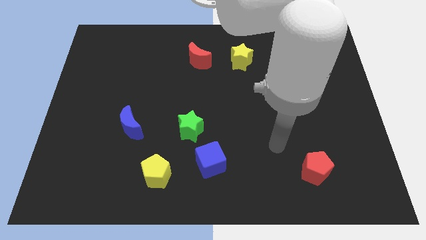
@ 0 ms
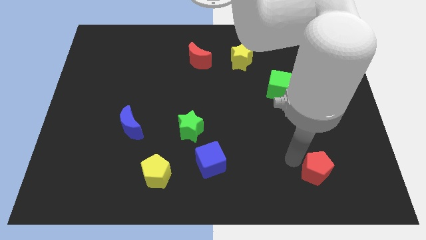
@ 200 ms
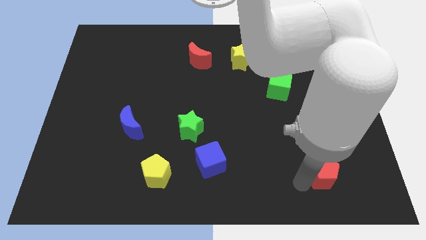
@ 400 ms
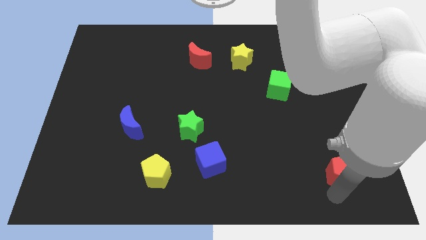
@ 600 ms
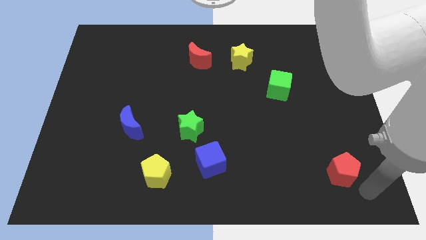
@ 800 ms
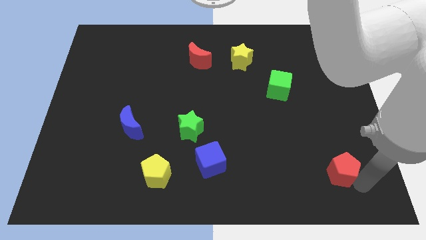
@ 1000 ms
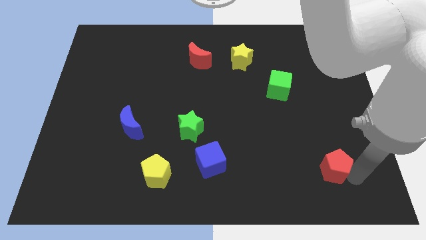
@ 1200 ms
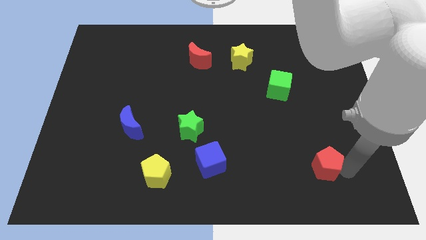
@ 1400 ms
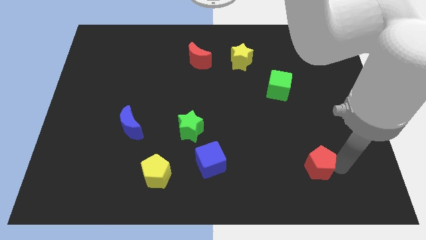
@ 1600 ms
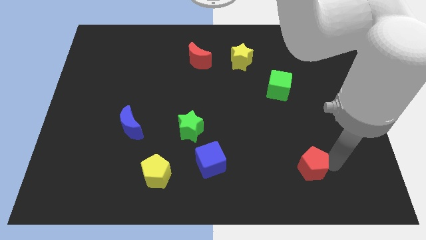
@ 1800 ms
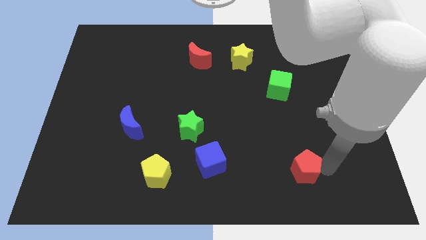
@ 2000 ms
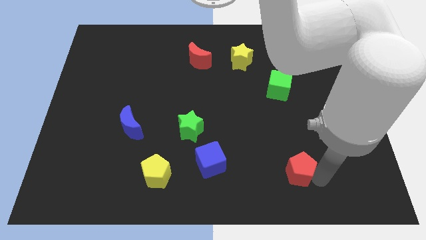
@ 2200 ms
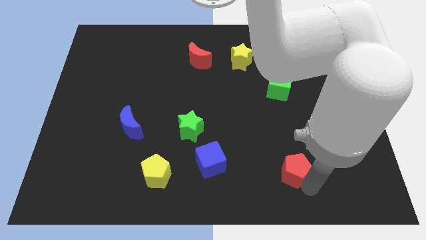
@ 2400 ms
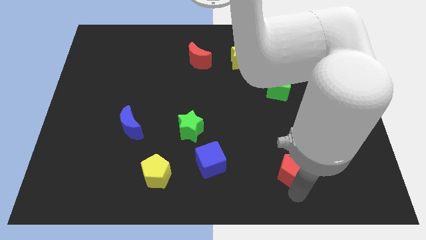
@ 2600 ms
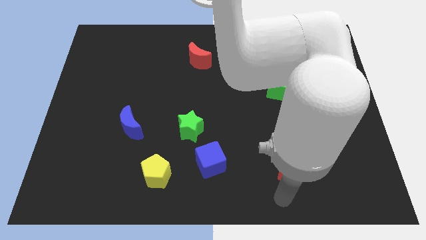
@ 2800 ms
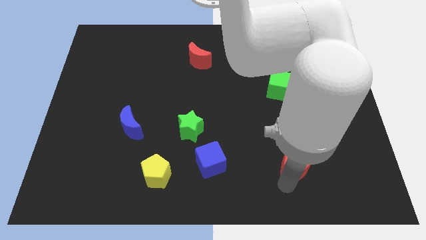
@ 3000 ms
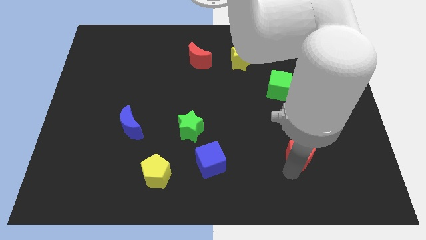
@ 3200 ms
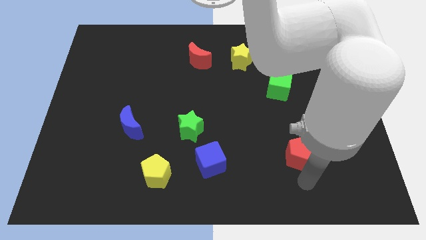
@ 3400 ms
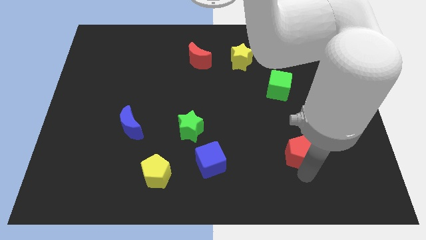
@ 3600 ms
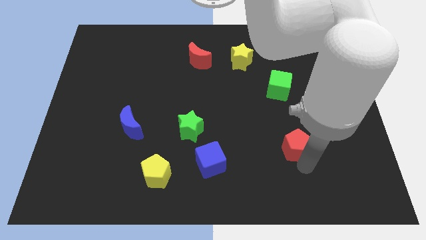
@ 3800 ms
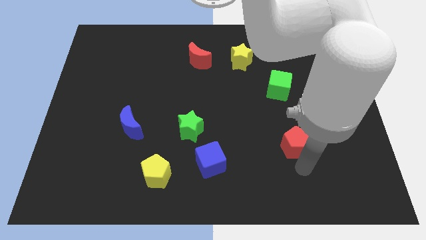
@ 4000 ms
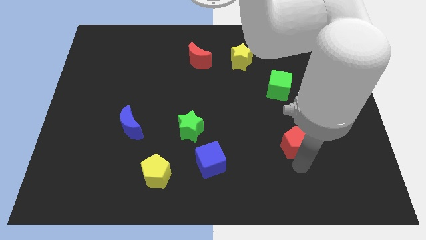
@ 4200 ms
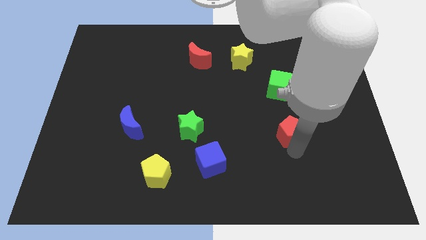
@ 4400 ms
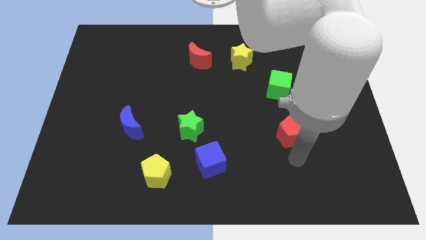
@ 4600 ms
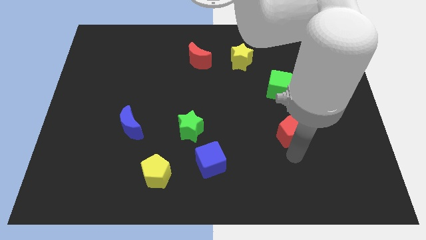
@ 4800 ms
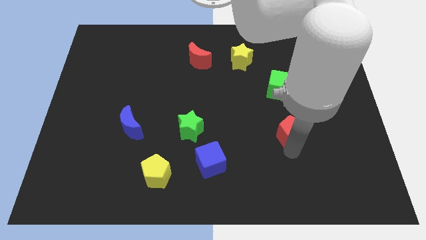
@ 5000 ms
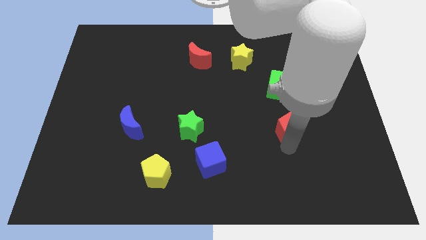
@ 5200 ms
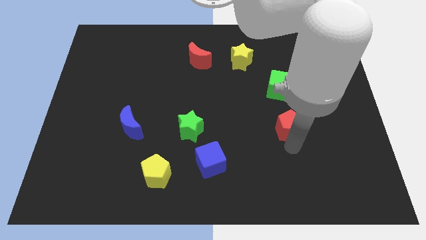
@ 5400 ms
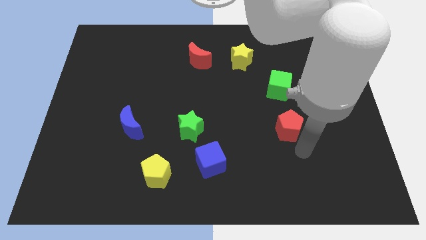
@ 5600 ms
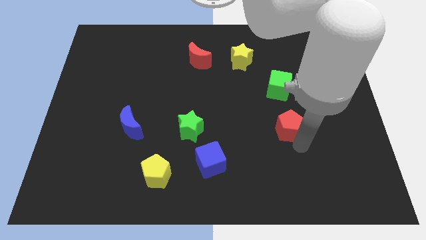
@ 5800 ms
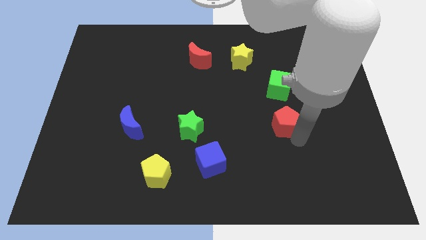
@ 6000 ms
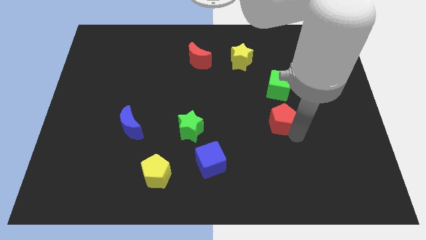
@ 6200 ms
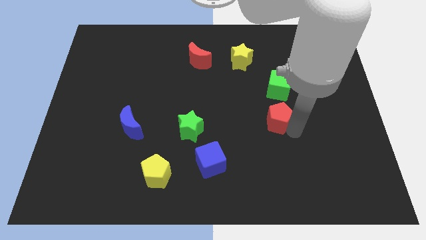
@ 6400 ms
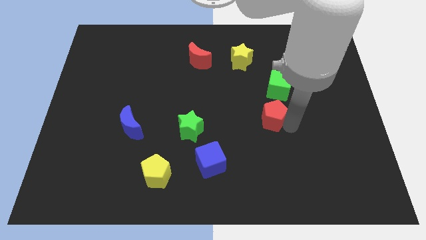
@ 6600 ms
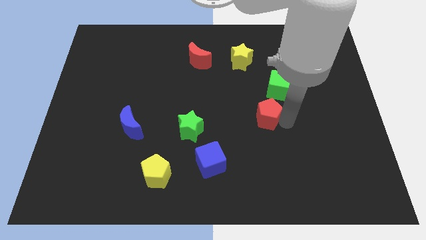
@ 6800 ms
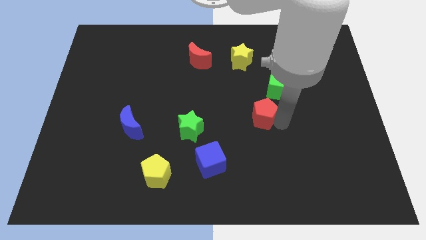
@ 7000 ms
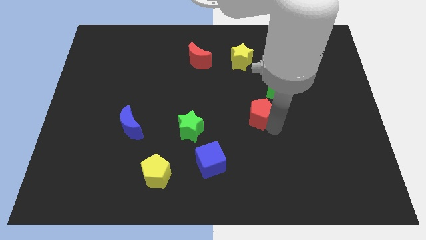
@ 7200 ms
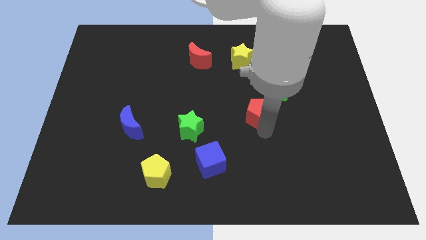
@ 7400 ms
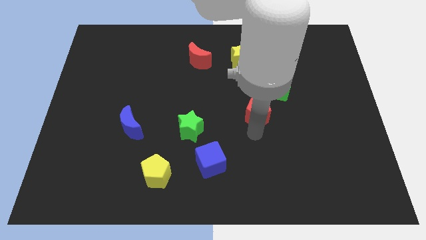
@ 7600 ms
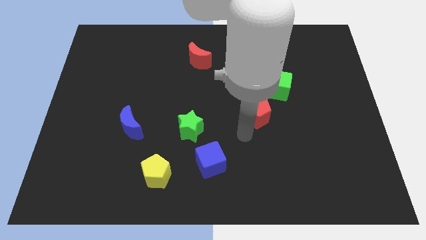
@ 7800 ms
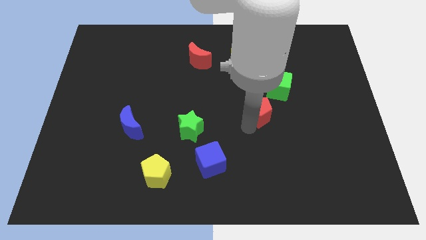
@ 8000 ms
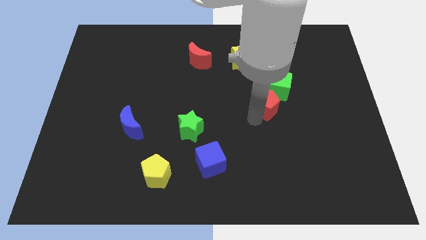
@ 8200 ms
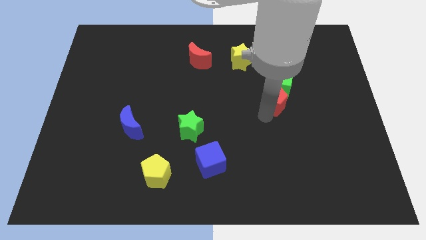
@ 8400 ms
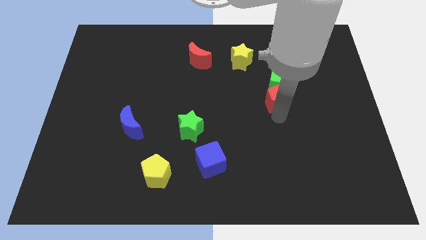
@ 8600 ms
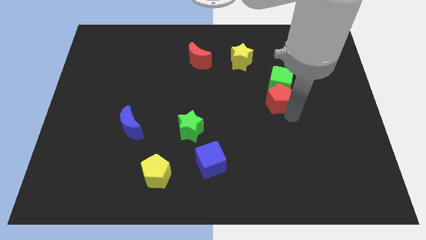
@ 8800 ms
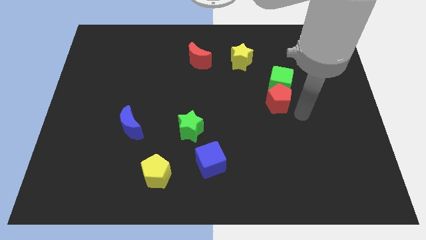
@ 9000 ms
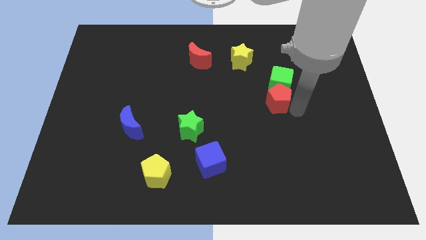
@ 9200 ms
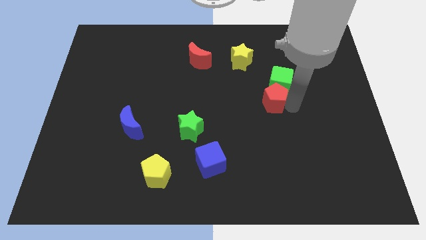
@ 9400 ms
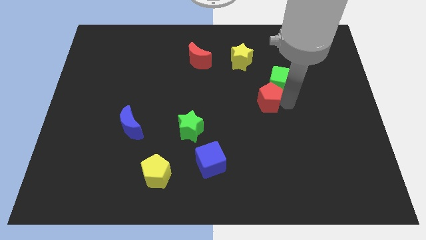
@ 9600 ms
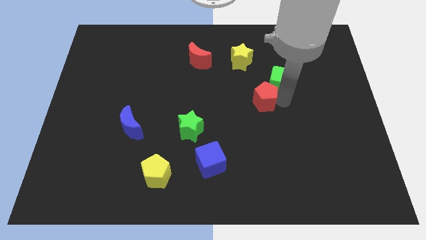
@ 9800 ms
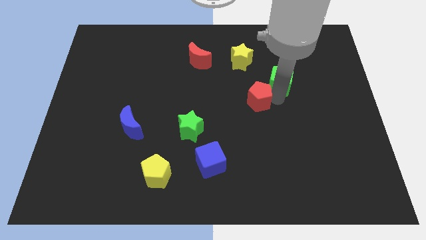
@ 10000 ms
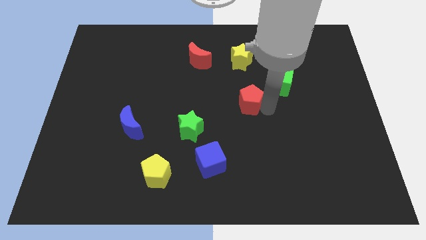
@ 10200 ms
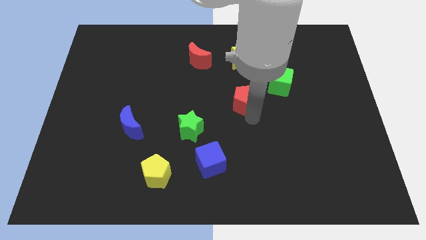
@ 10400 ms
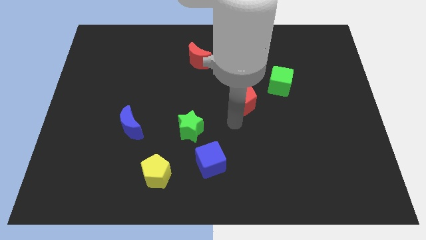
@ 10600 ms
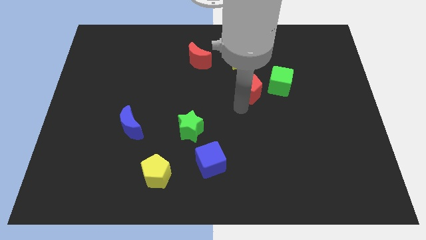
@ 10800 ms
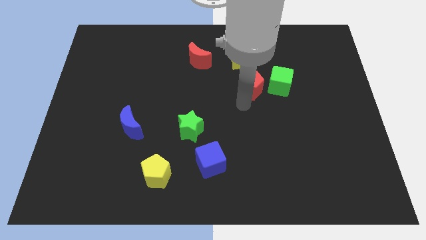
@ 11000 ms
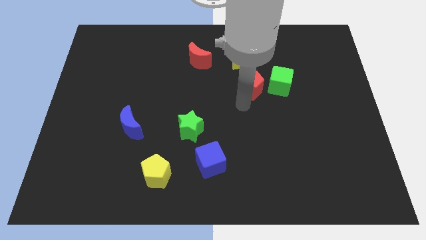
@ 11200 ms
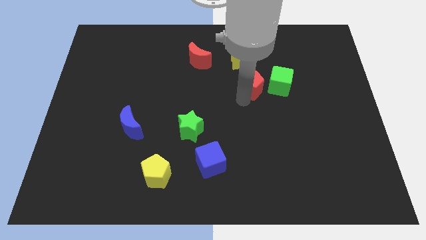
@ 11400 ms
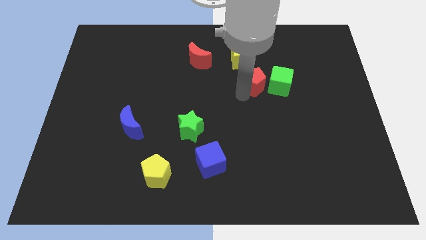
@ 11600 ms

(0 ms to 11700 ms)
put the red pentagon diagonally up and to the left of the green cube

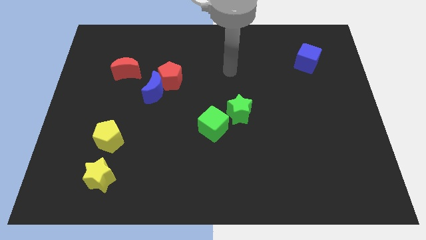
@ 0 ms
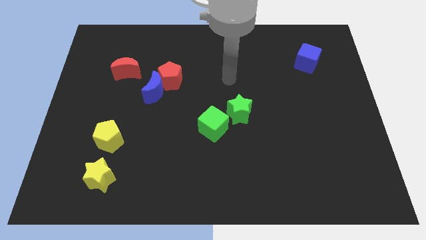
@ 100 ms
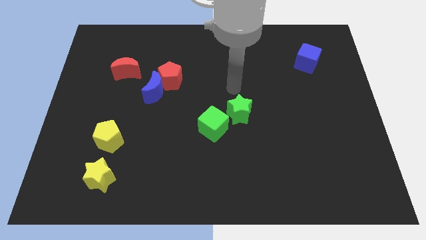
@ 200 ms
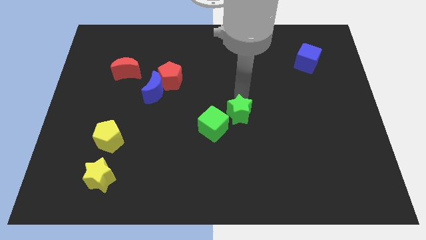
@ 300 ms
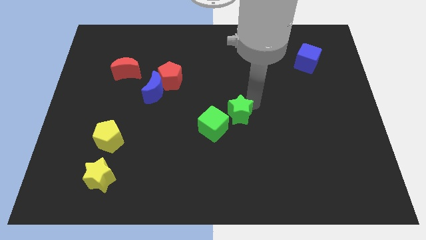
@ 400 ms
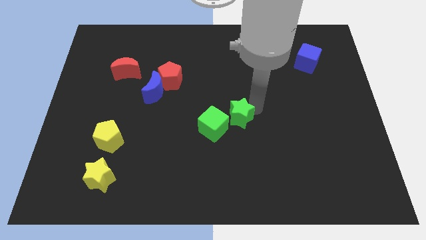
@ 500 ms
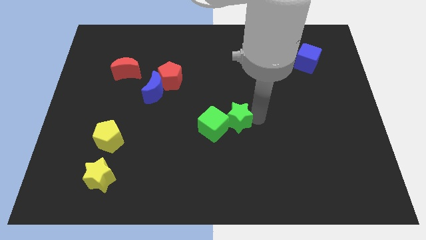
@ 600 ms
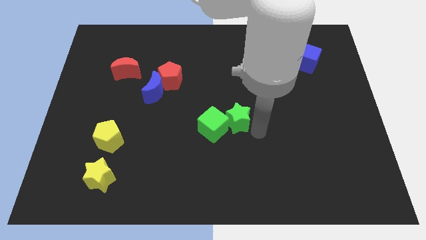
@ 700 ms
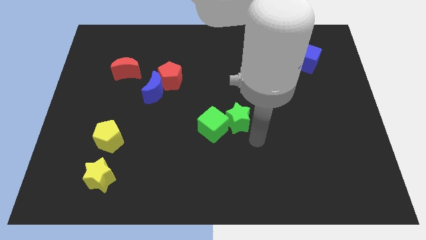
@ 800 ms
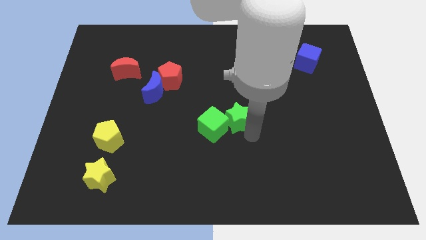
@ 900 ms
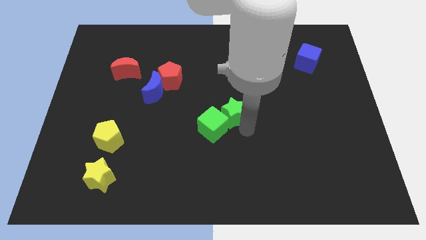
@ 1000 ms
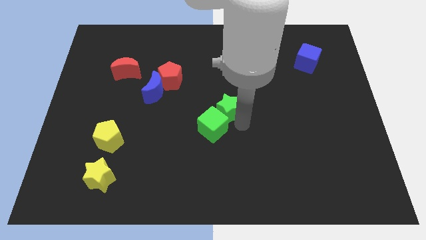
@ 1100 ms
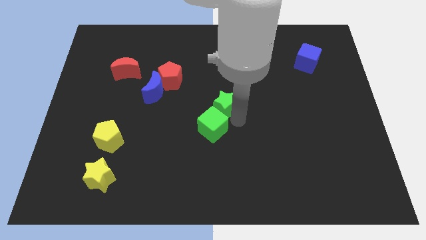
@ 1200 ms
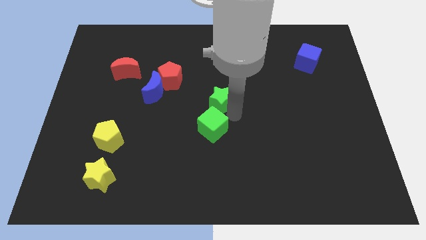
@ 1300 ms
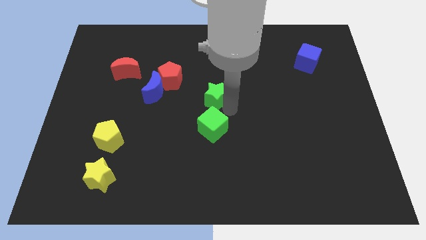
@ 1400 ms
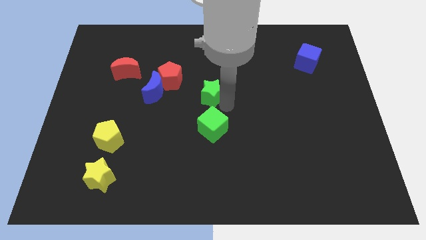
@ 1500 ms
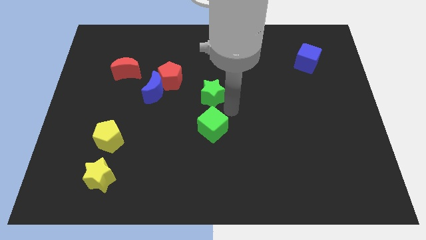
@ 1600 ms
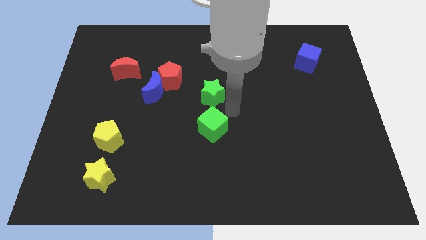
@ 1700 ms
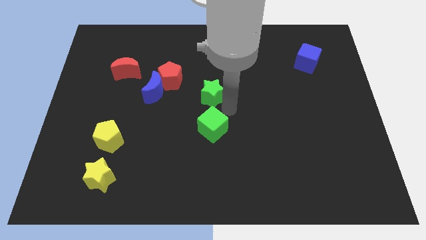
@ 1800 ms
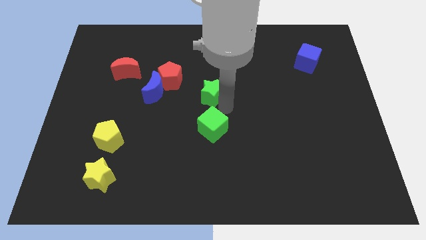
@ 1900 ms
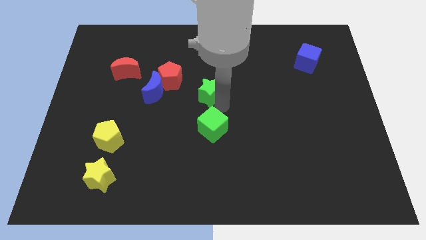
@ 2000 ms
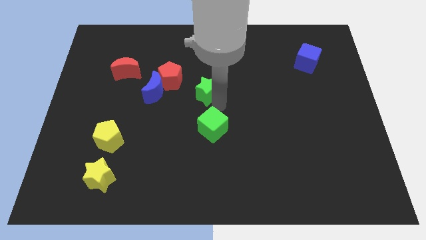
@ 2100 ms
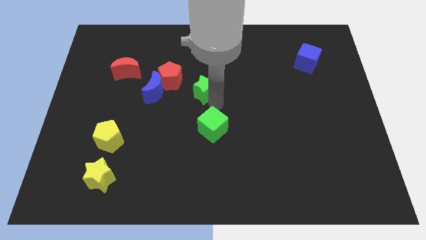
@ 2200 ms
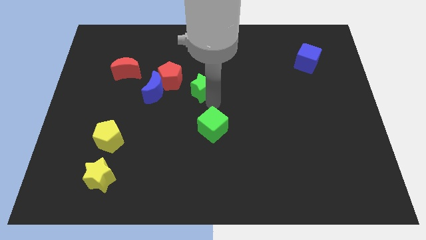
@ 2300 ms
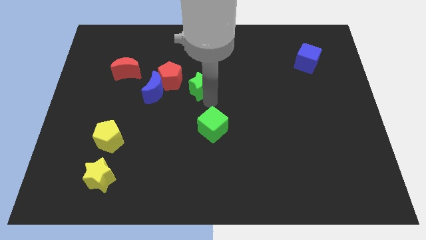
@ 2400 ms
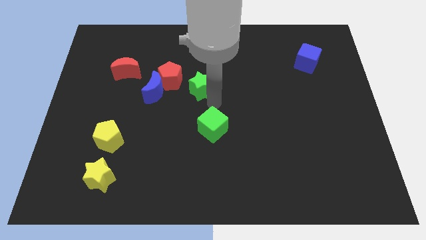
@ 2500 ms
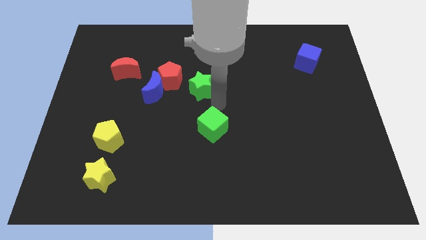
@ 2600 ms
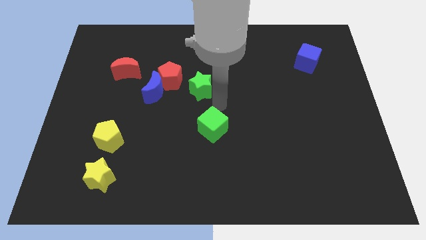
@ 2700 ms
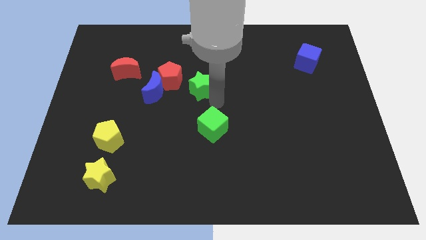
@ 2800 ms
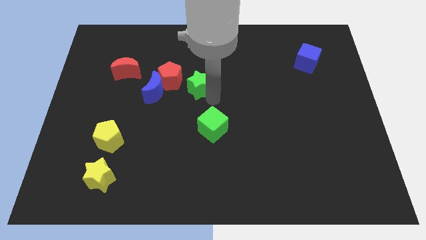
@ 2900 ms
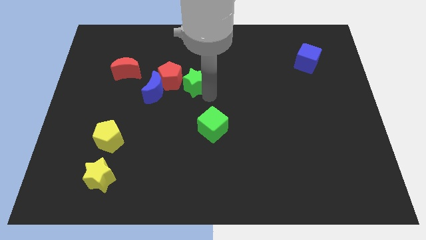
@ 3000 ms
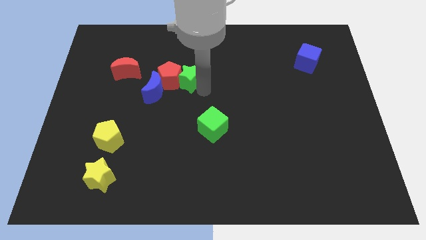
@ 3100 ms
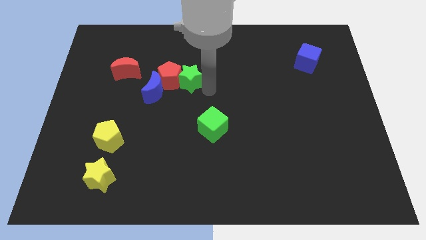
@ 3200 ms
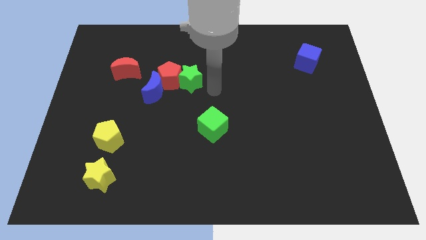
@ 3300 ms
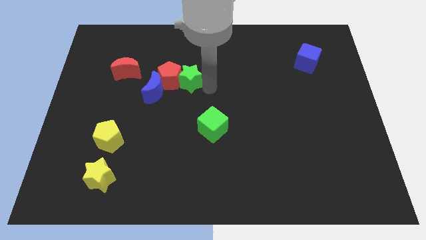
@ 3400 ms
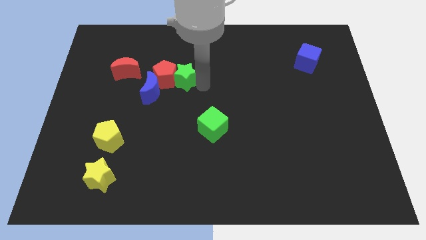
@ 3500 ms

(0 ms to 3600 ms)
put the green star to the right side of the red moon
